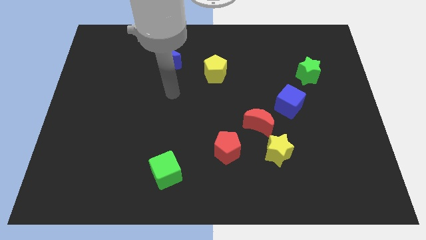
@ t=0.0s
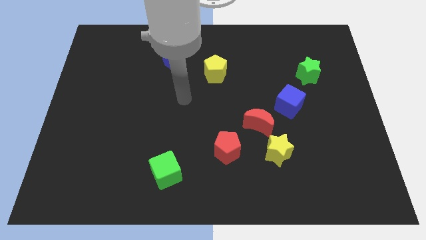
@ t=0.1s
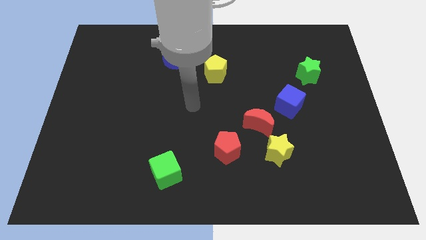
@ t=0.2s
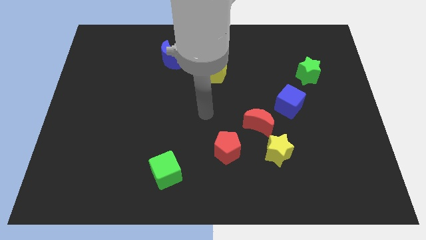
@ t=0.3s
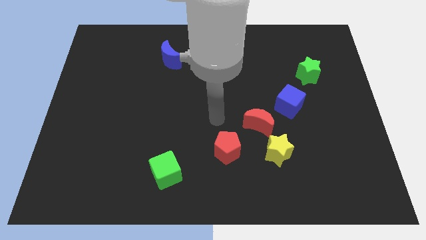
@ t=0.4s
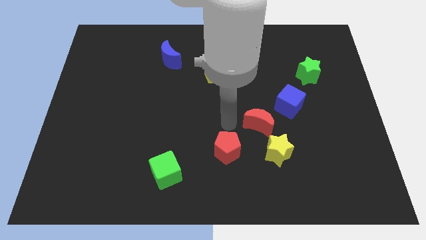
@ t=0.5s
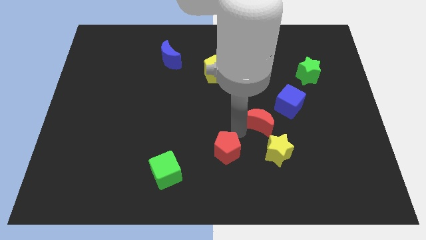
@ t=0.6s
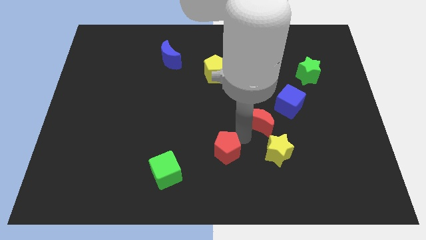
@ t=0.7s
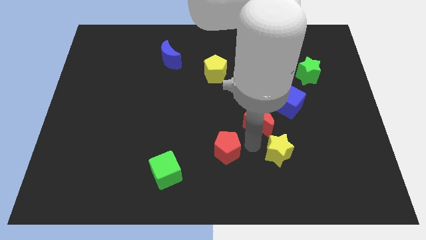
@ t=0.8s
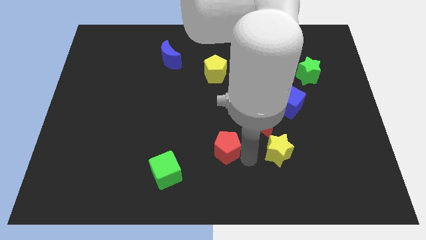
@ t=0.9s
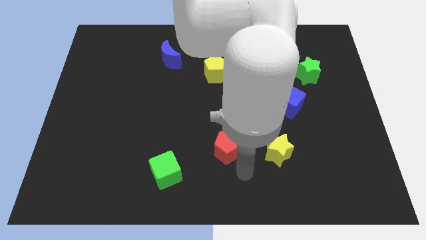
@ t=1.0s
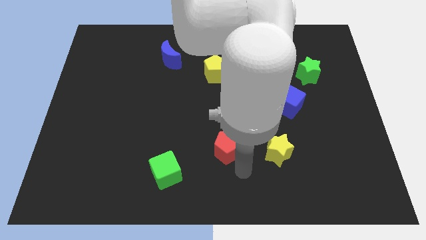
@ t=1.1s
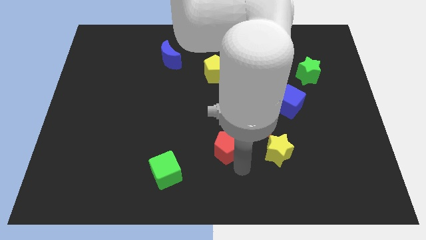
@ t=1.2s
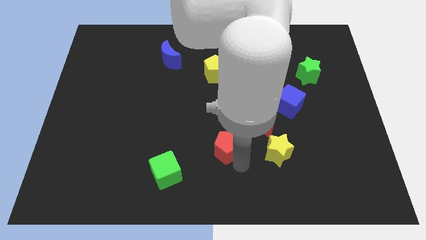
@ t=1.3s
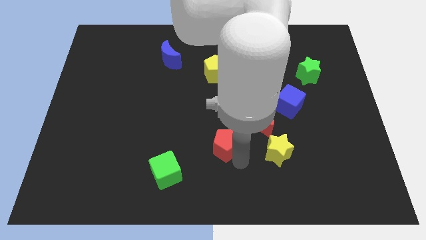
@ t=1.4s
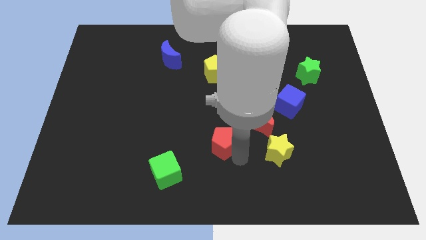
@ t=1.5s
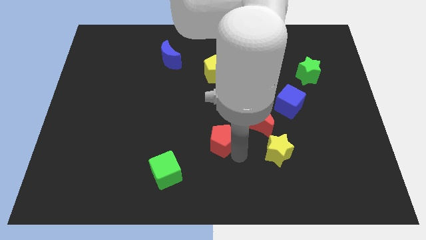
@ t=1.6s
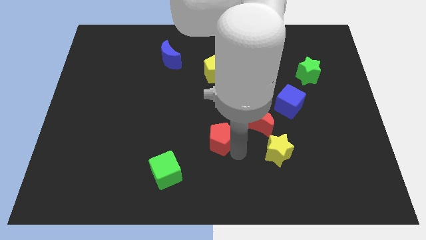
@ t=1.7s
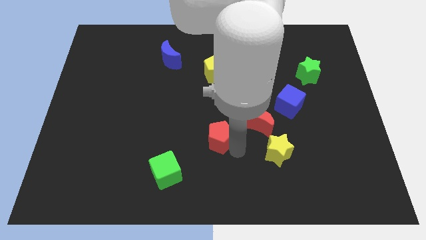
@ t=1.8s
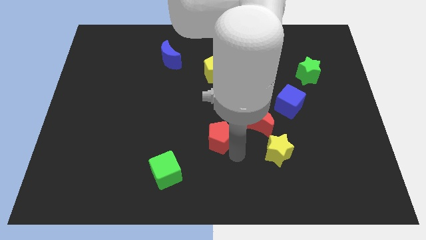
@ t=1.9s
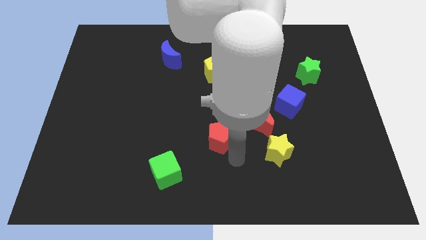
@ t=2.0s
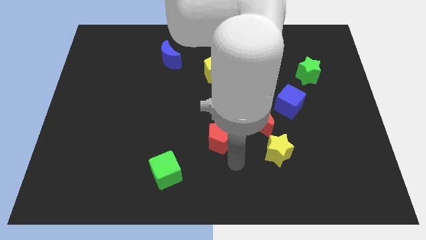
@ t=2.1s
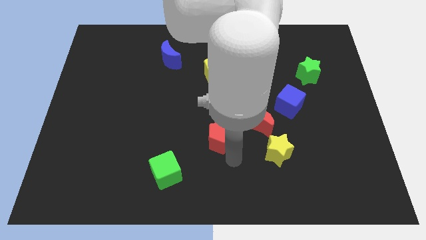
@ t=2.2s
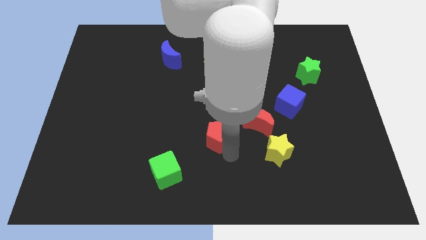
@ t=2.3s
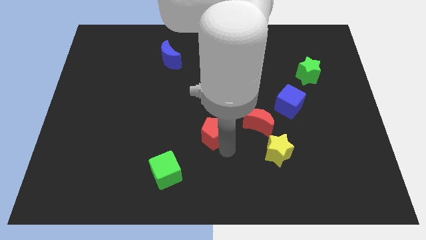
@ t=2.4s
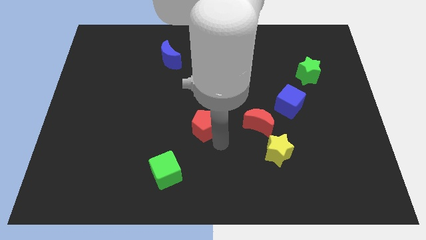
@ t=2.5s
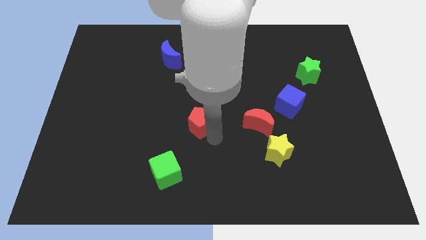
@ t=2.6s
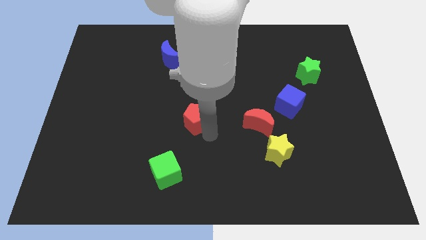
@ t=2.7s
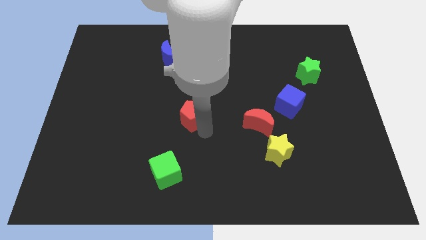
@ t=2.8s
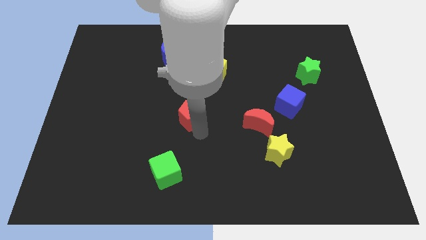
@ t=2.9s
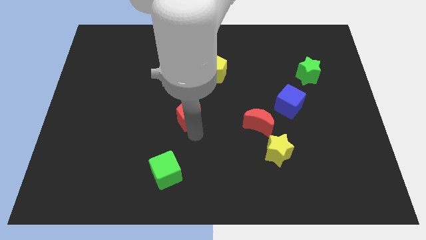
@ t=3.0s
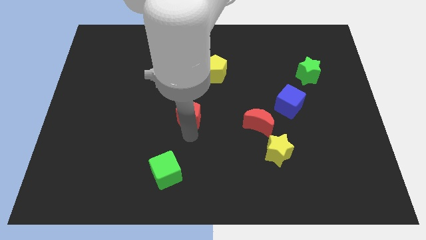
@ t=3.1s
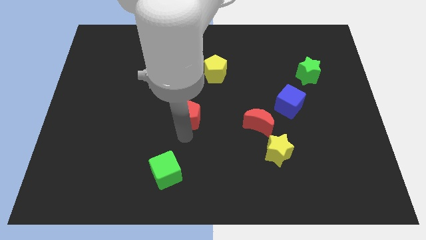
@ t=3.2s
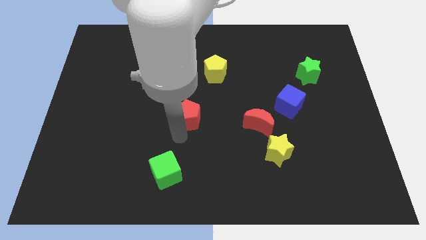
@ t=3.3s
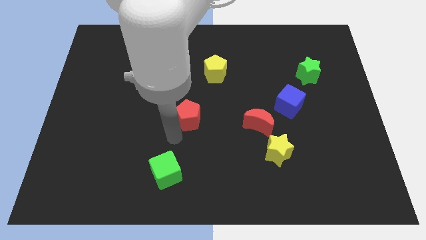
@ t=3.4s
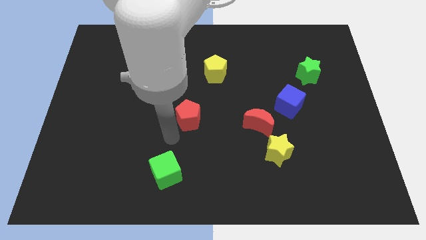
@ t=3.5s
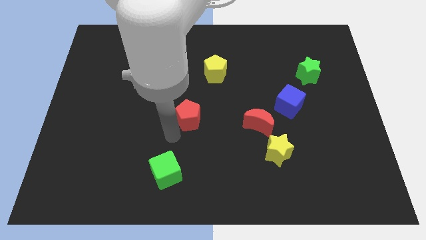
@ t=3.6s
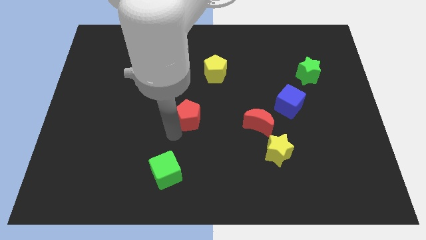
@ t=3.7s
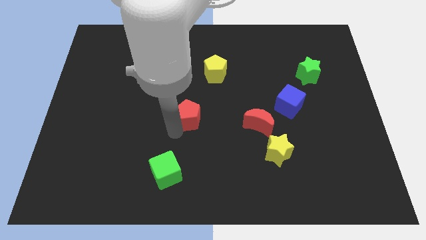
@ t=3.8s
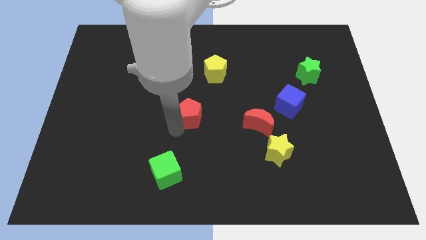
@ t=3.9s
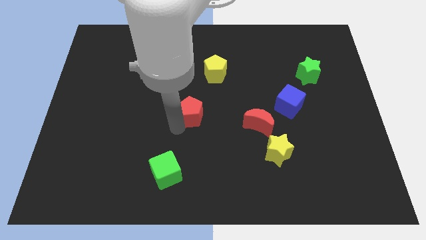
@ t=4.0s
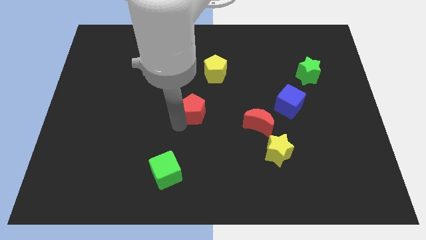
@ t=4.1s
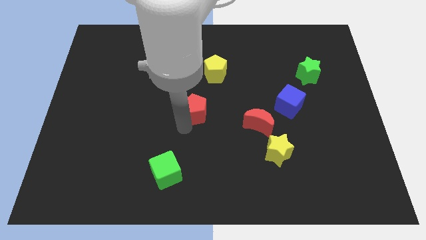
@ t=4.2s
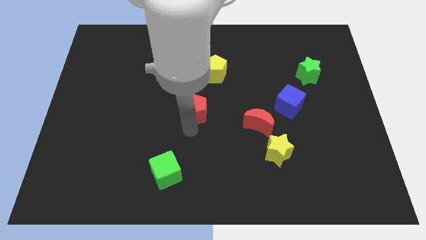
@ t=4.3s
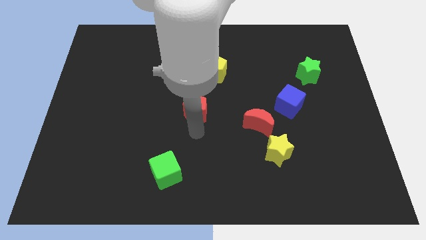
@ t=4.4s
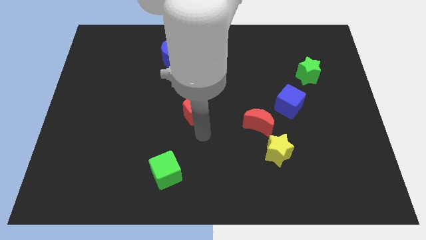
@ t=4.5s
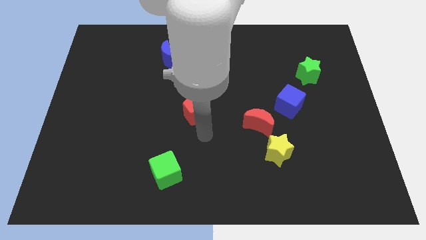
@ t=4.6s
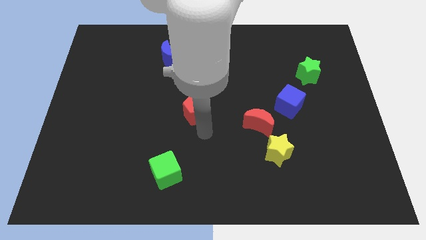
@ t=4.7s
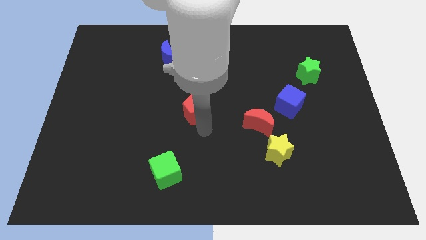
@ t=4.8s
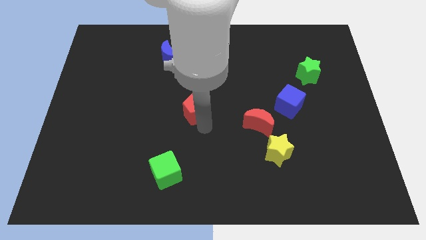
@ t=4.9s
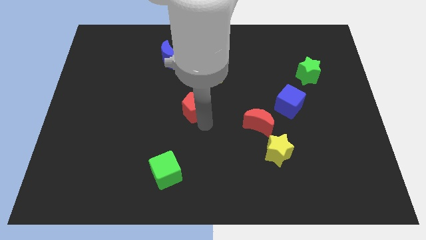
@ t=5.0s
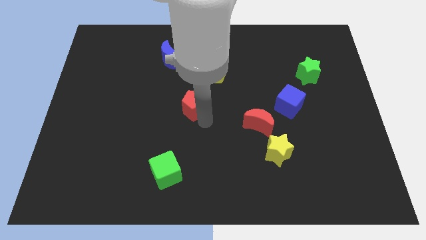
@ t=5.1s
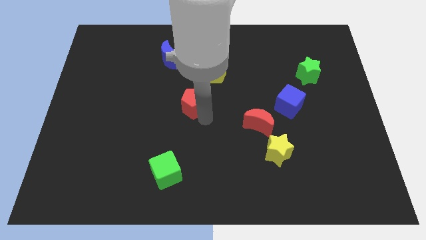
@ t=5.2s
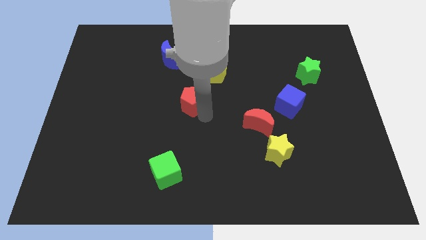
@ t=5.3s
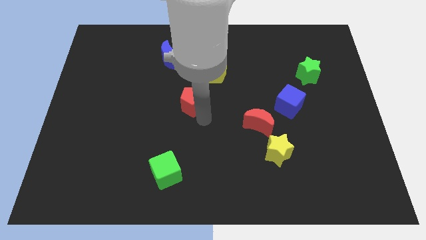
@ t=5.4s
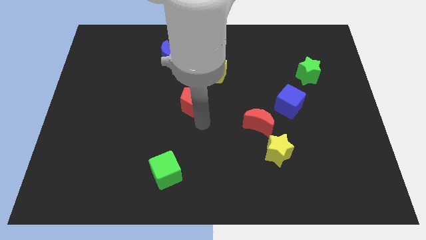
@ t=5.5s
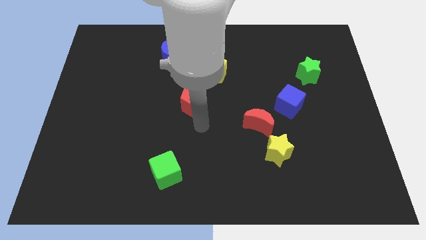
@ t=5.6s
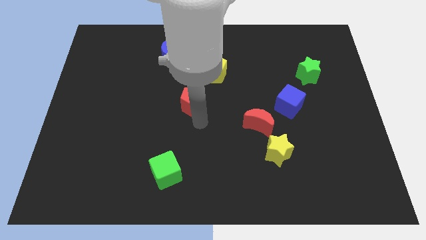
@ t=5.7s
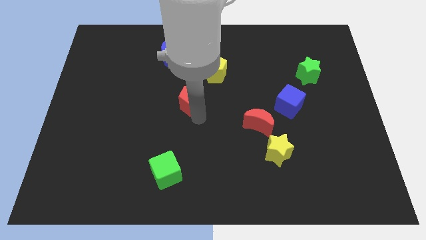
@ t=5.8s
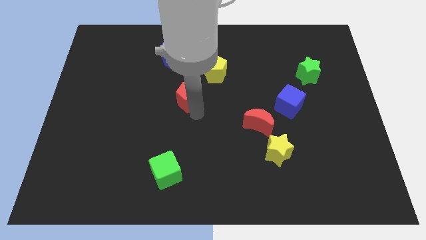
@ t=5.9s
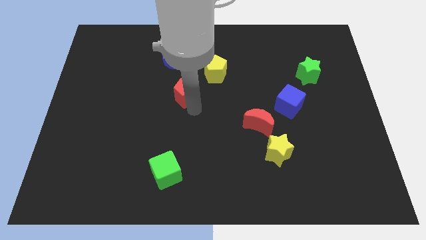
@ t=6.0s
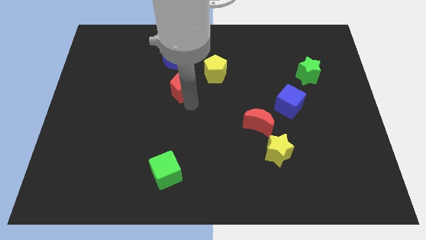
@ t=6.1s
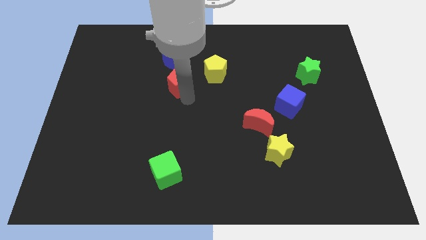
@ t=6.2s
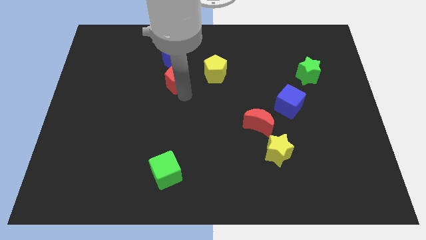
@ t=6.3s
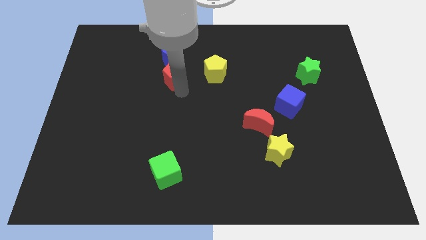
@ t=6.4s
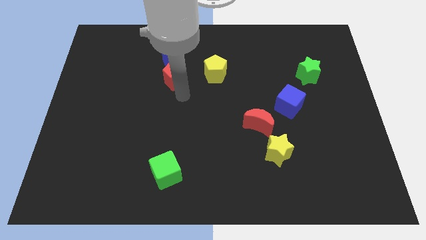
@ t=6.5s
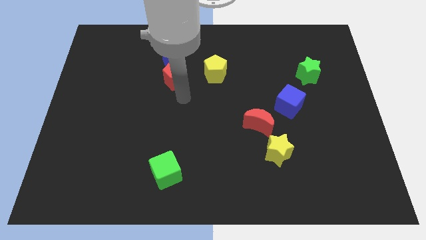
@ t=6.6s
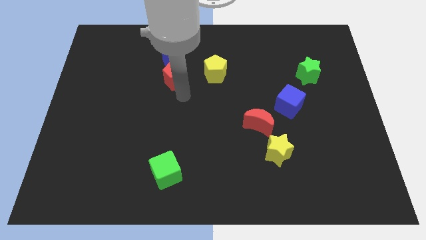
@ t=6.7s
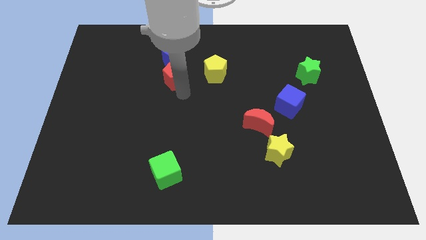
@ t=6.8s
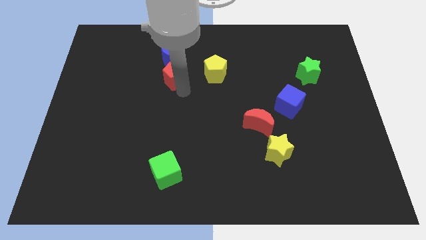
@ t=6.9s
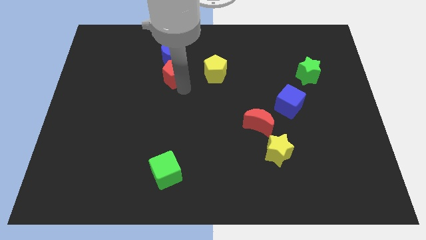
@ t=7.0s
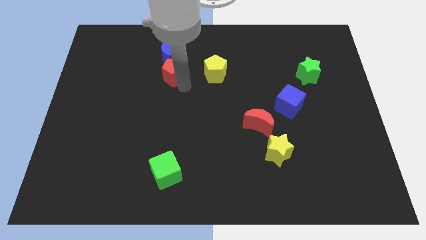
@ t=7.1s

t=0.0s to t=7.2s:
slide the red pentagon towards the blue moon
